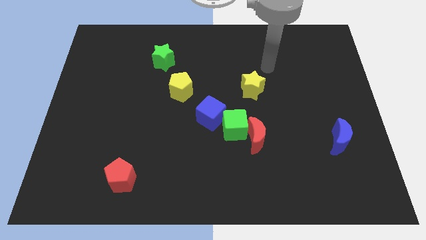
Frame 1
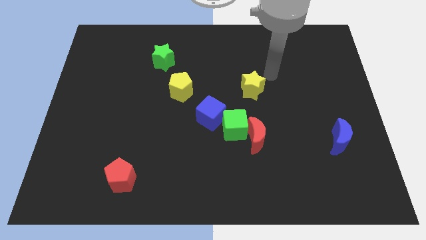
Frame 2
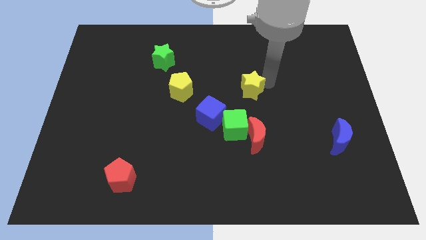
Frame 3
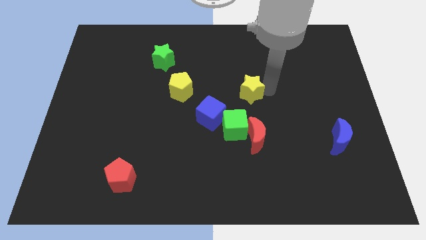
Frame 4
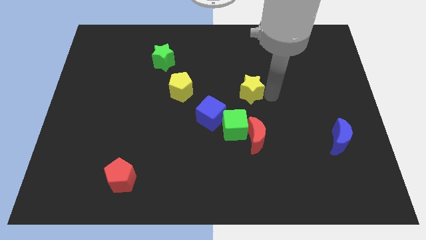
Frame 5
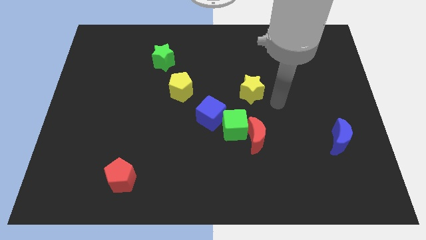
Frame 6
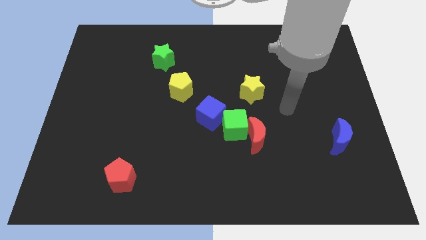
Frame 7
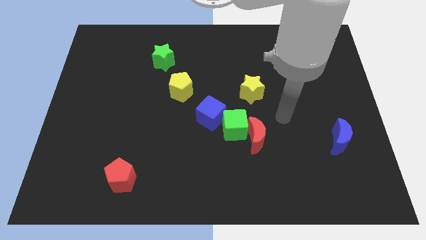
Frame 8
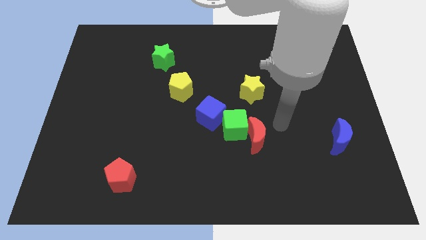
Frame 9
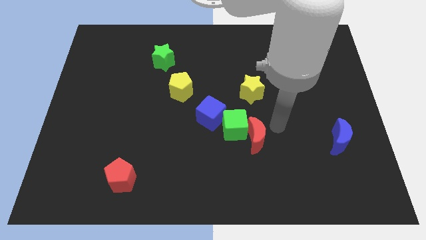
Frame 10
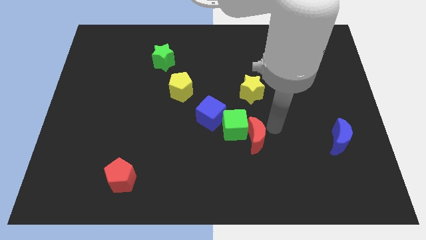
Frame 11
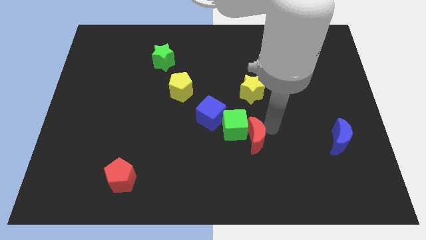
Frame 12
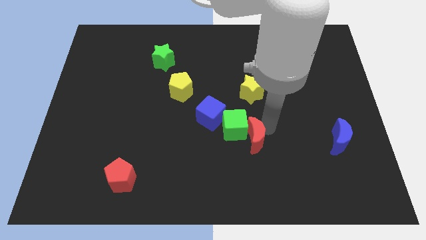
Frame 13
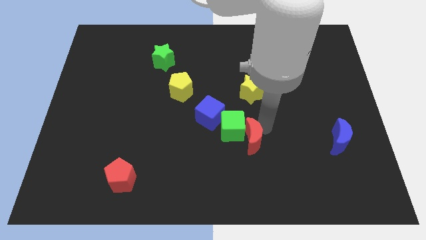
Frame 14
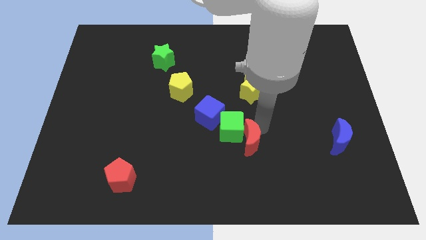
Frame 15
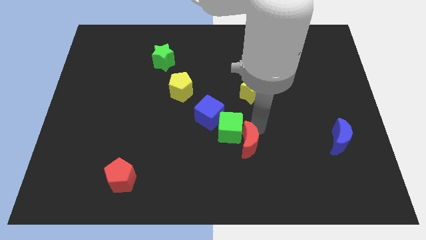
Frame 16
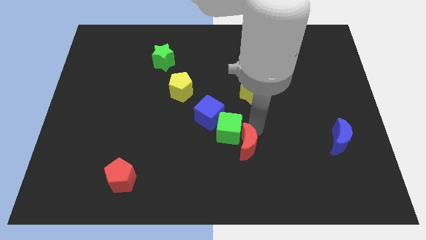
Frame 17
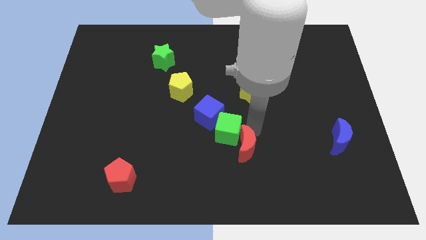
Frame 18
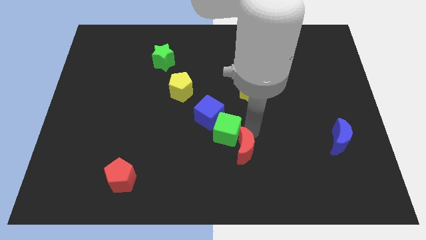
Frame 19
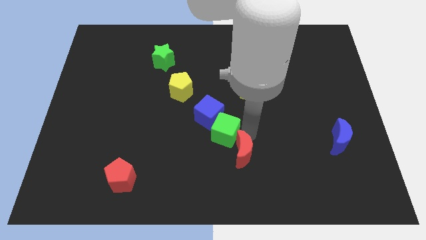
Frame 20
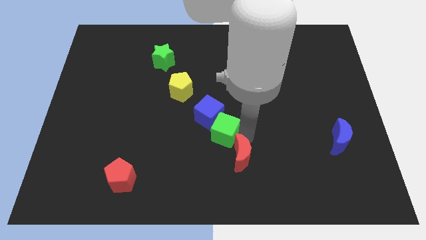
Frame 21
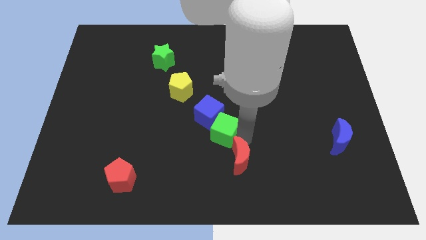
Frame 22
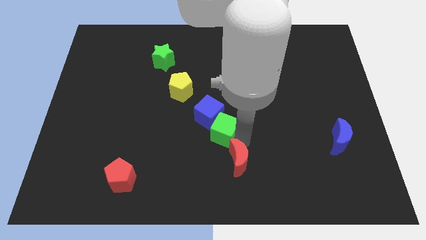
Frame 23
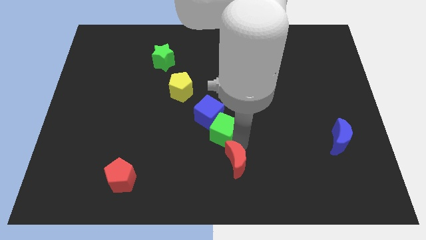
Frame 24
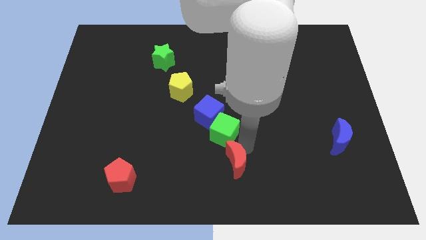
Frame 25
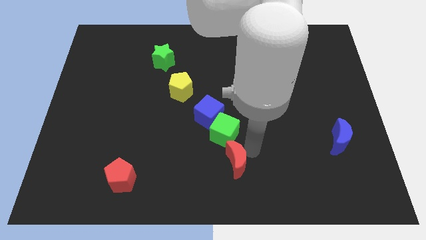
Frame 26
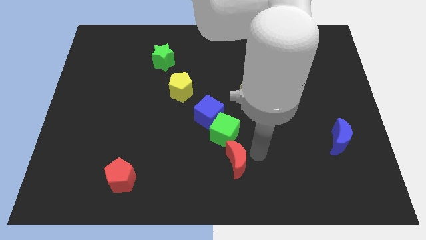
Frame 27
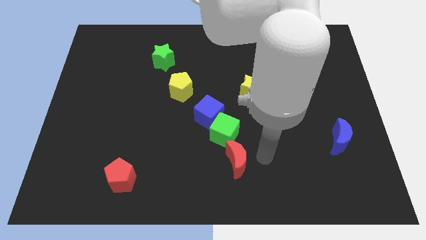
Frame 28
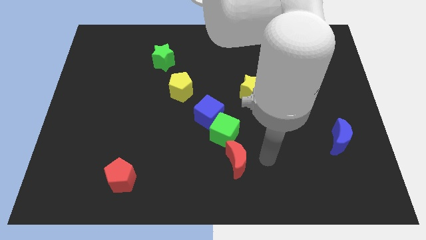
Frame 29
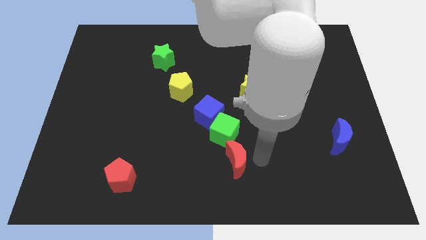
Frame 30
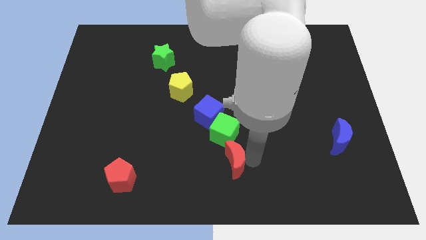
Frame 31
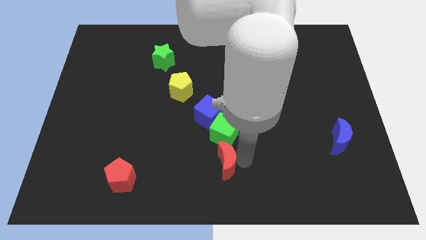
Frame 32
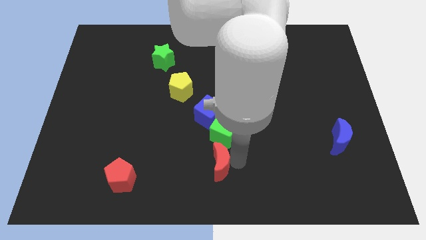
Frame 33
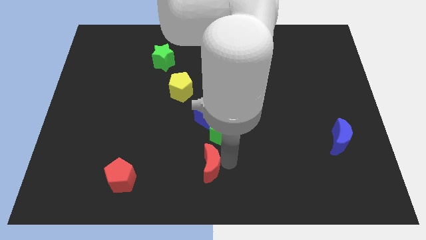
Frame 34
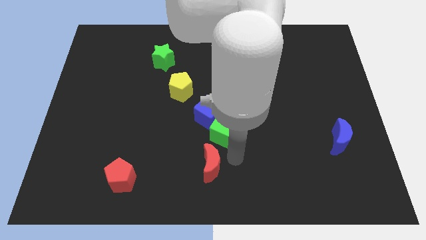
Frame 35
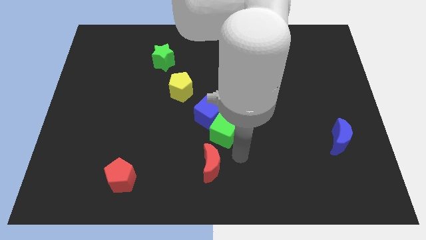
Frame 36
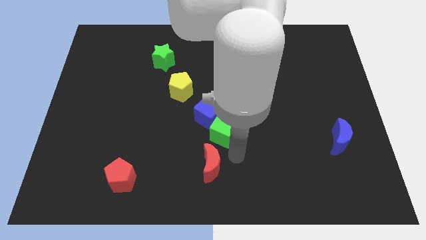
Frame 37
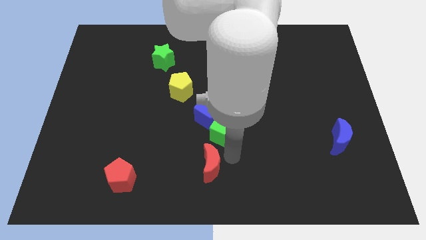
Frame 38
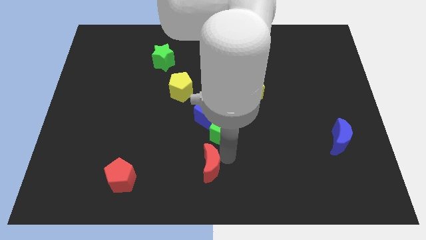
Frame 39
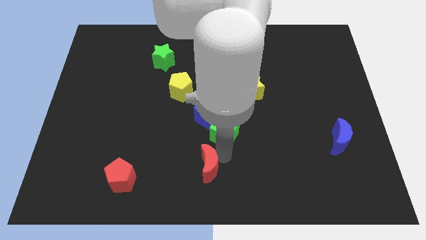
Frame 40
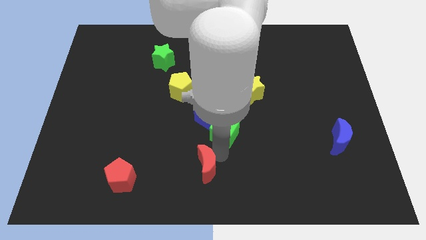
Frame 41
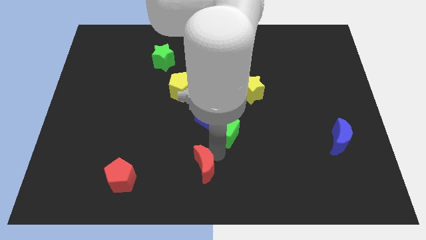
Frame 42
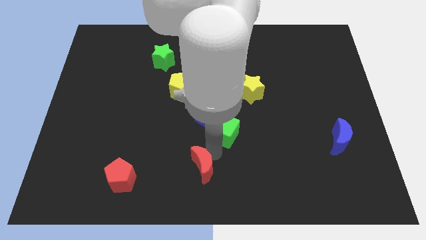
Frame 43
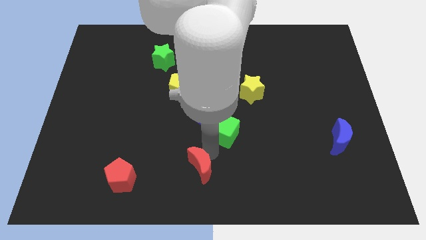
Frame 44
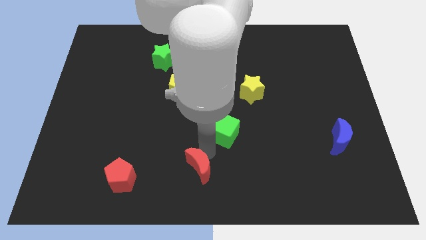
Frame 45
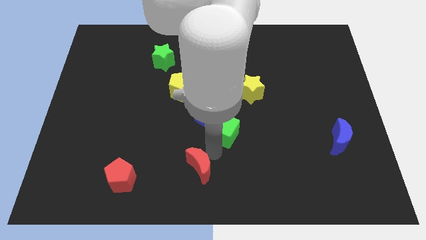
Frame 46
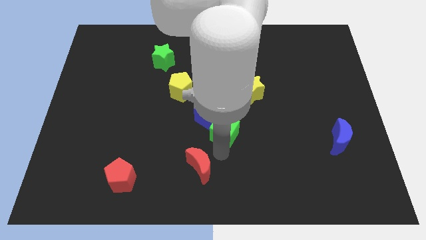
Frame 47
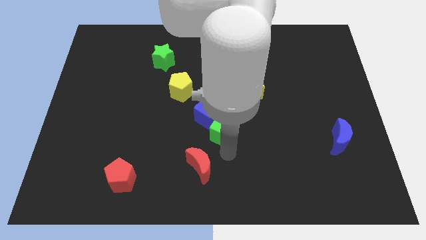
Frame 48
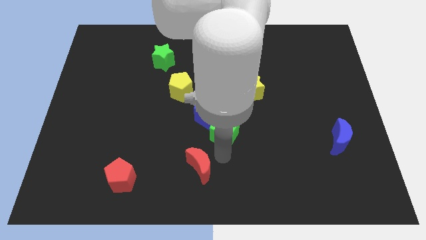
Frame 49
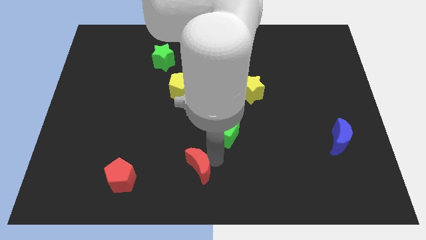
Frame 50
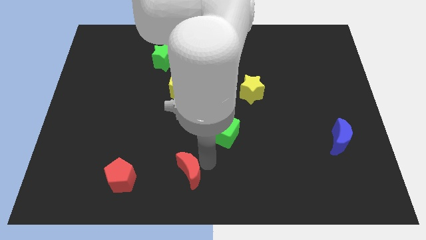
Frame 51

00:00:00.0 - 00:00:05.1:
push the red moon right of the red pentagon

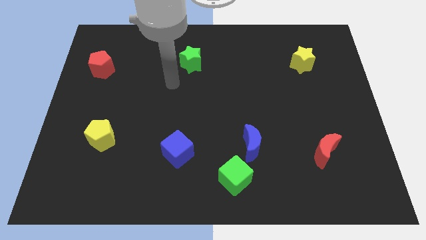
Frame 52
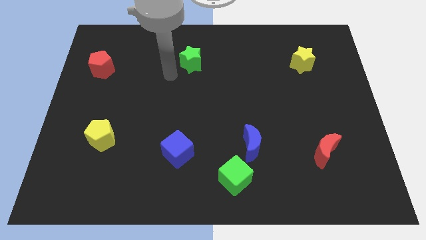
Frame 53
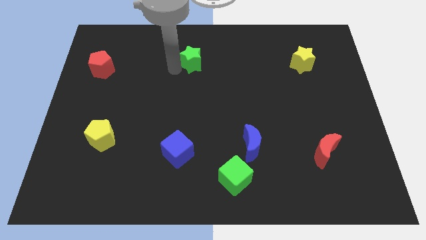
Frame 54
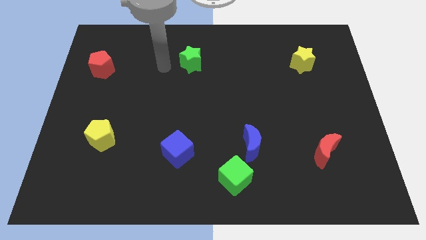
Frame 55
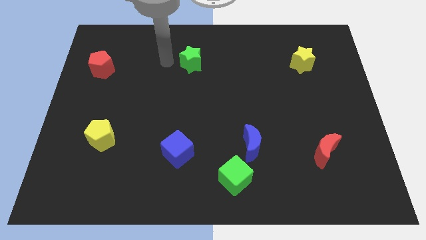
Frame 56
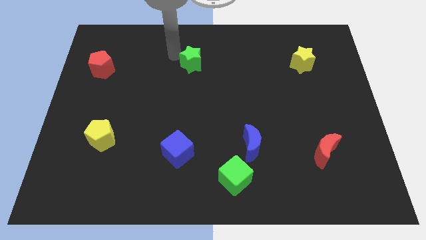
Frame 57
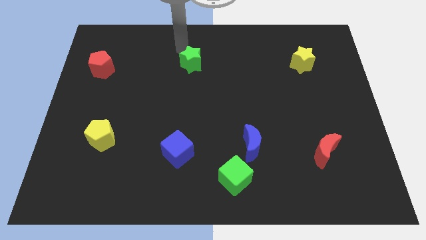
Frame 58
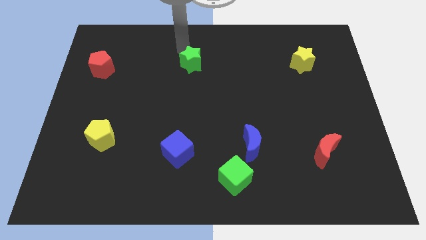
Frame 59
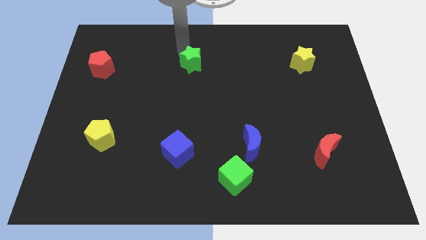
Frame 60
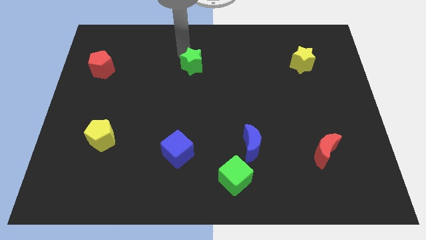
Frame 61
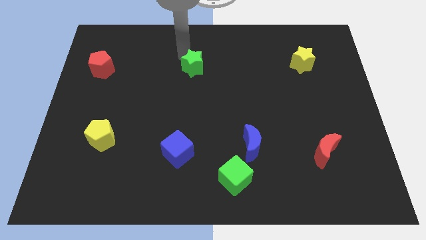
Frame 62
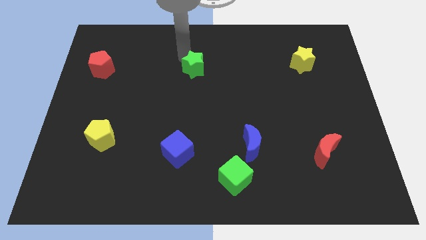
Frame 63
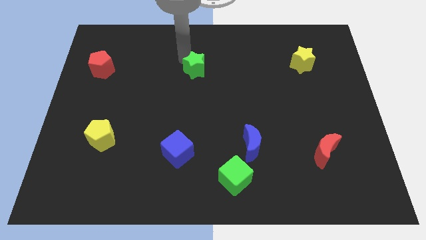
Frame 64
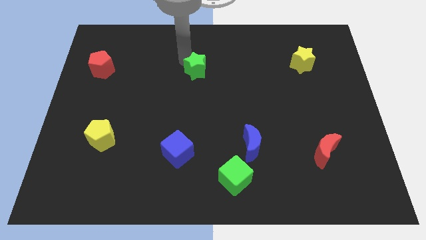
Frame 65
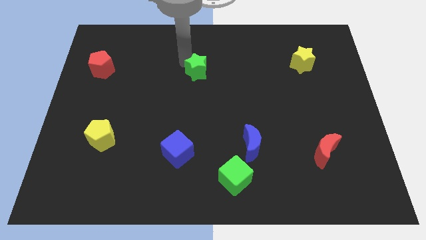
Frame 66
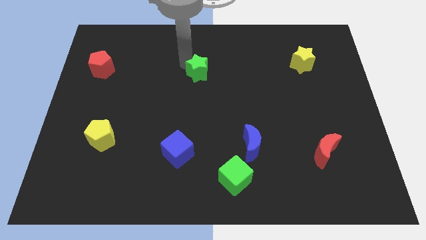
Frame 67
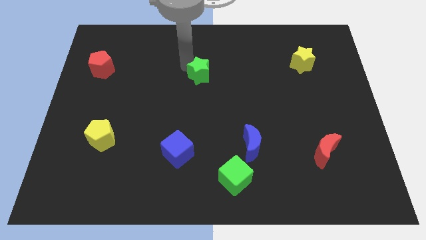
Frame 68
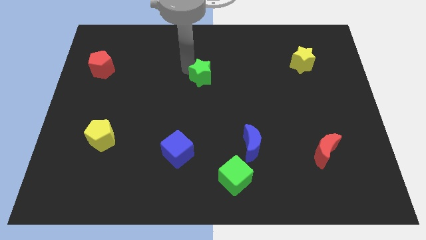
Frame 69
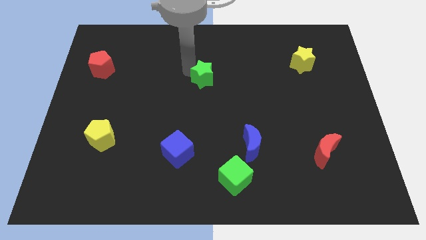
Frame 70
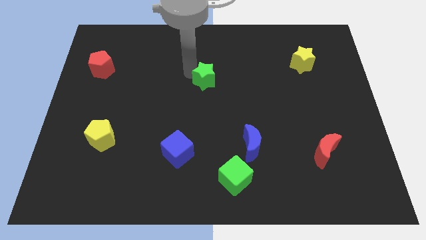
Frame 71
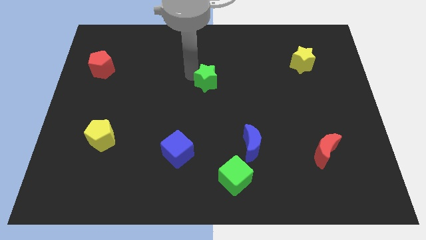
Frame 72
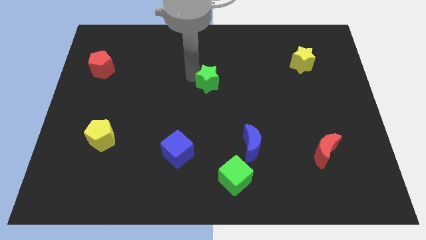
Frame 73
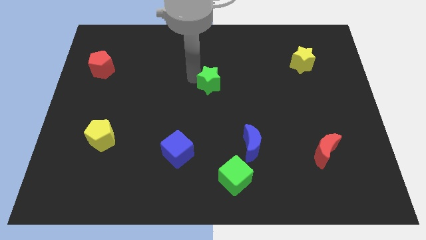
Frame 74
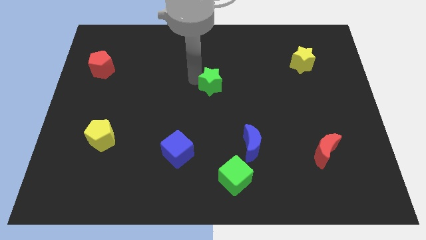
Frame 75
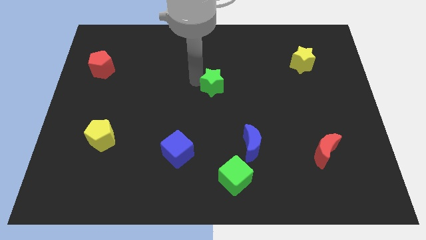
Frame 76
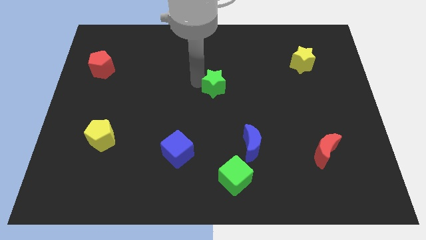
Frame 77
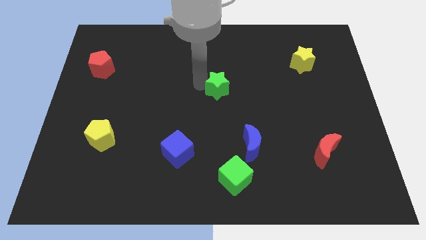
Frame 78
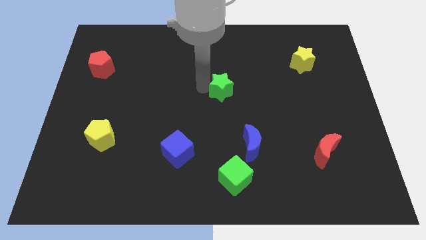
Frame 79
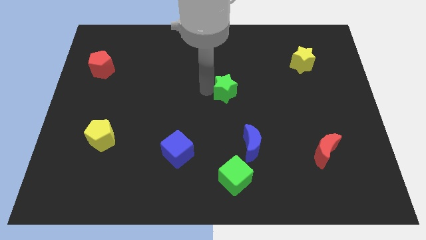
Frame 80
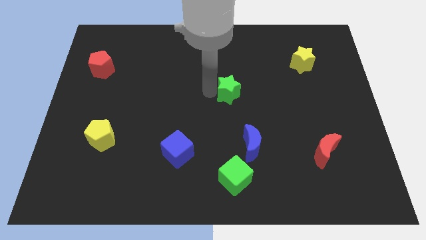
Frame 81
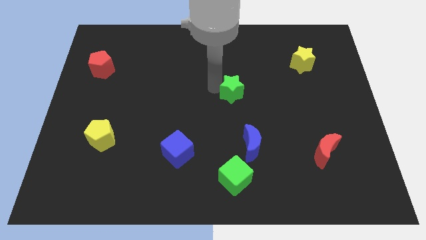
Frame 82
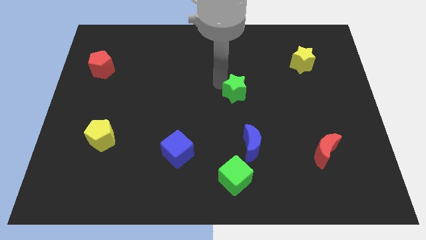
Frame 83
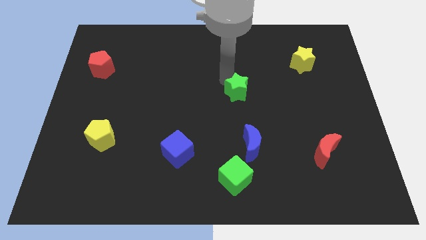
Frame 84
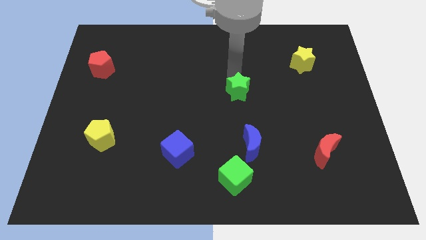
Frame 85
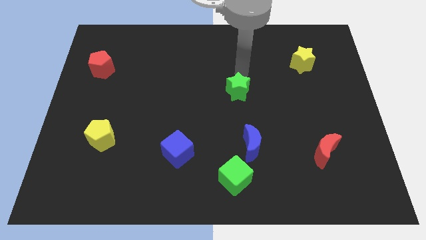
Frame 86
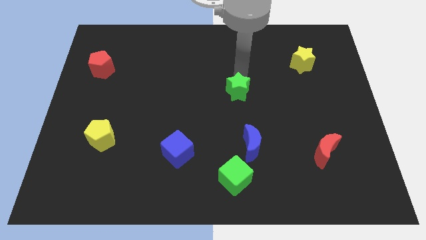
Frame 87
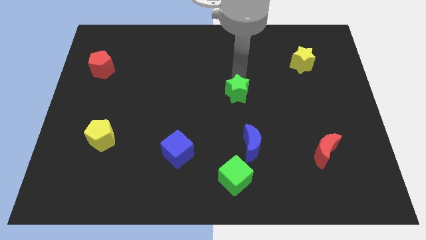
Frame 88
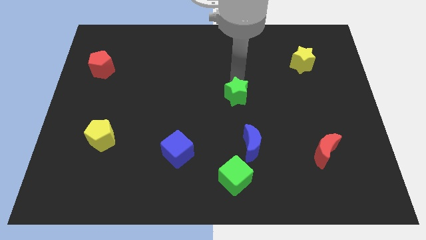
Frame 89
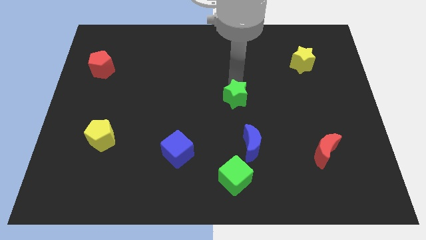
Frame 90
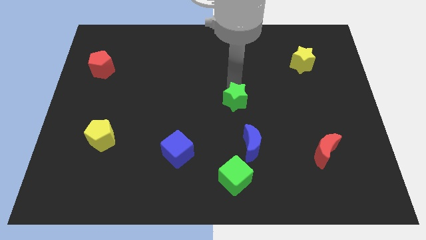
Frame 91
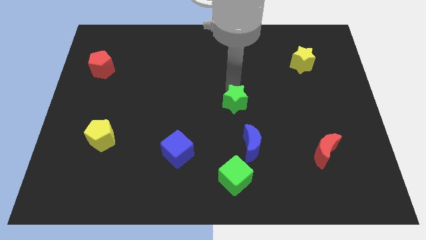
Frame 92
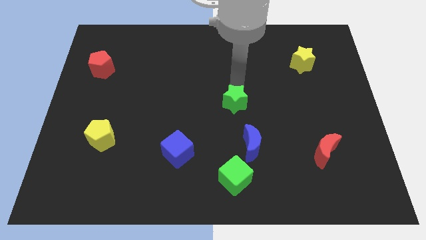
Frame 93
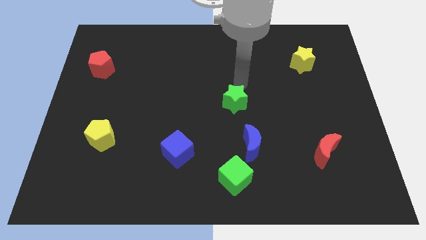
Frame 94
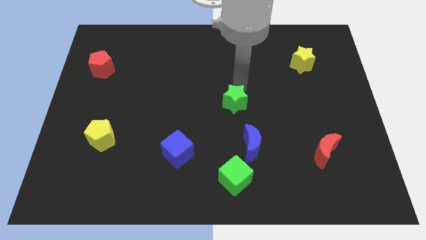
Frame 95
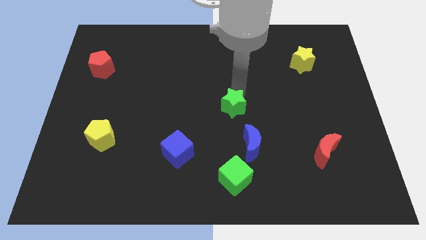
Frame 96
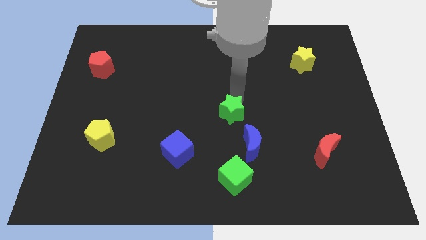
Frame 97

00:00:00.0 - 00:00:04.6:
move the green star to the top left side of the blue moon
